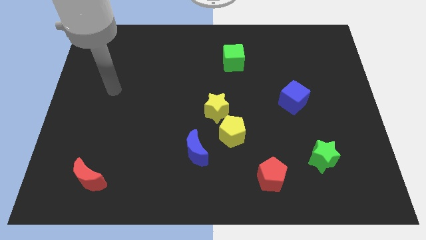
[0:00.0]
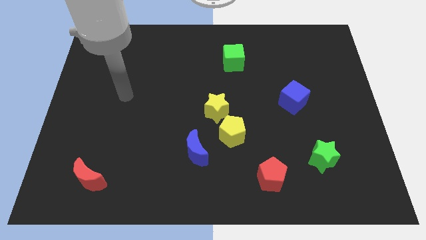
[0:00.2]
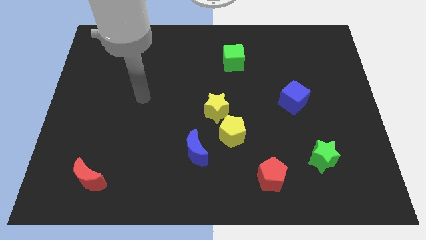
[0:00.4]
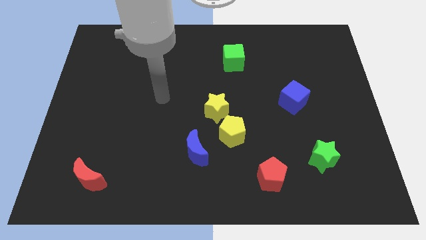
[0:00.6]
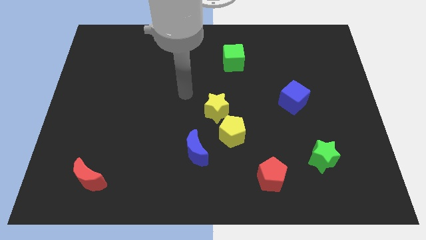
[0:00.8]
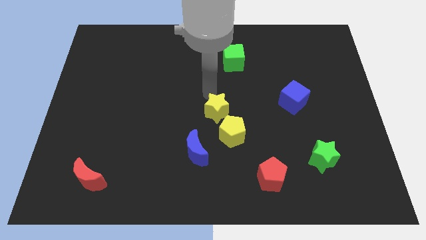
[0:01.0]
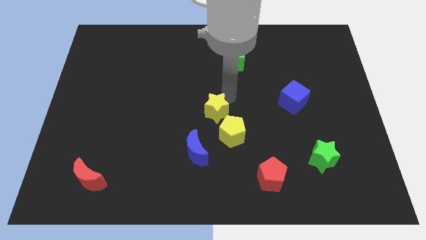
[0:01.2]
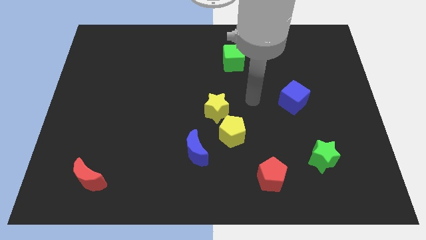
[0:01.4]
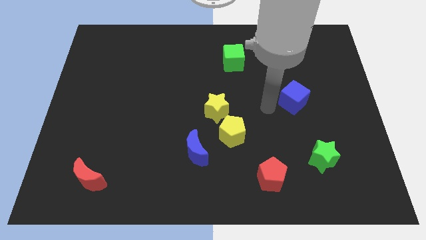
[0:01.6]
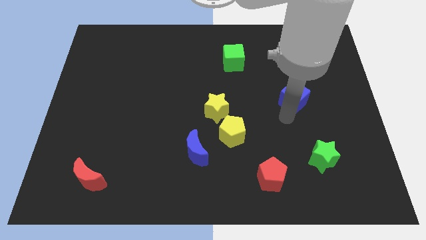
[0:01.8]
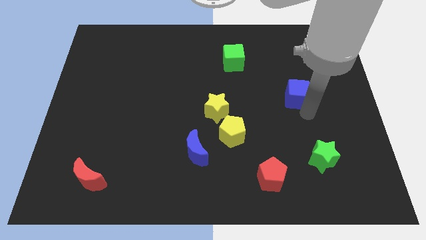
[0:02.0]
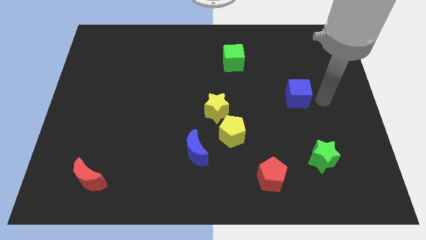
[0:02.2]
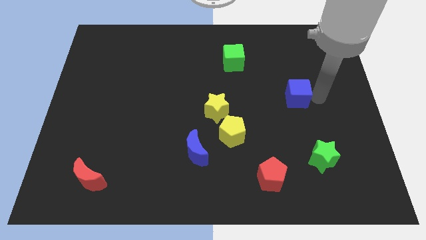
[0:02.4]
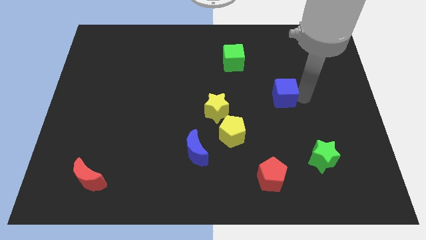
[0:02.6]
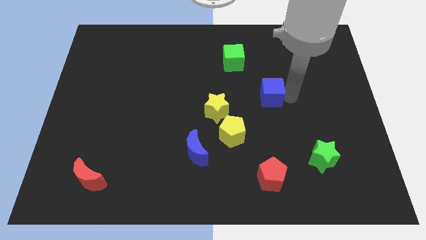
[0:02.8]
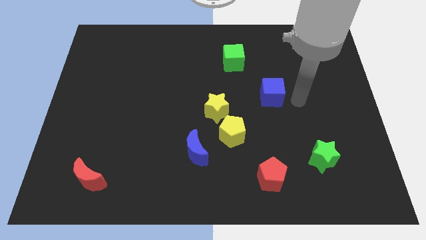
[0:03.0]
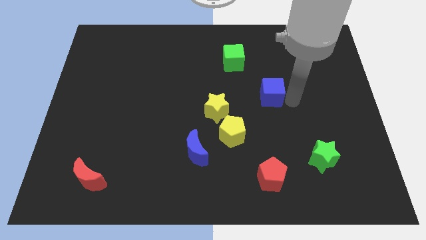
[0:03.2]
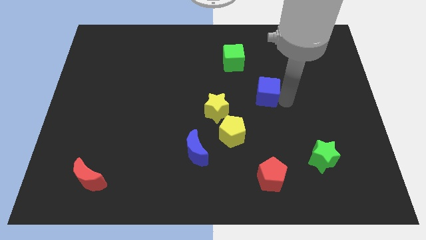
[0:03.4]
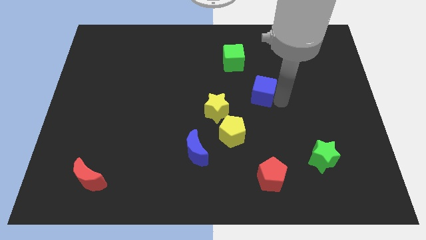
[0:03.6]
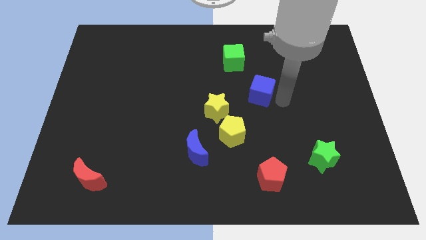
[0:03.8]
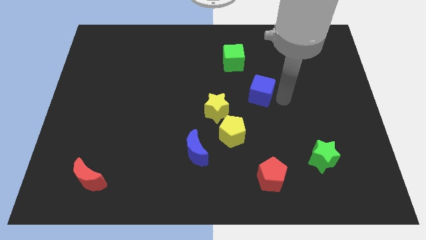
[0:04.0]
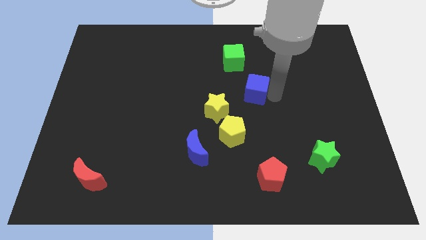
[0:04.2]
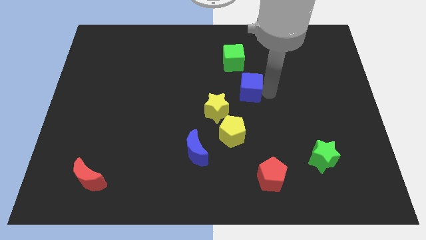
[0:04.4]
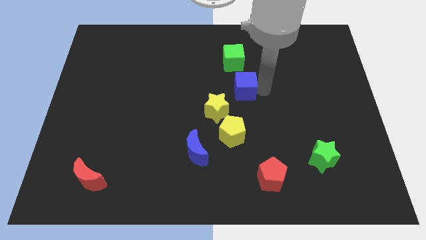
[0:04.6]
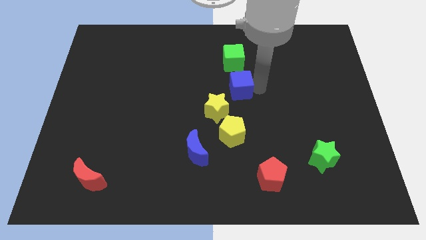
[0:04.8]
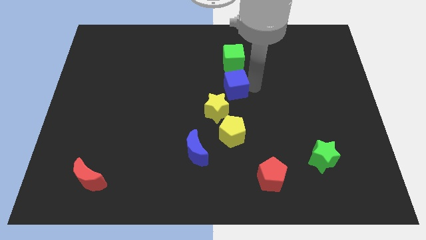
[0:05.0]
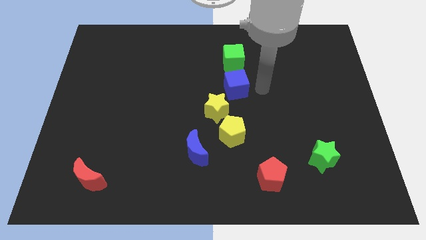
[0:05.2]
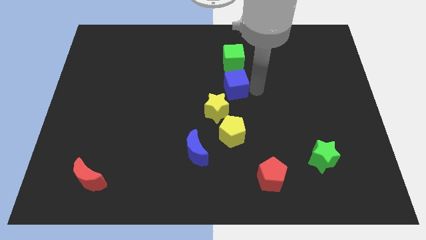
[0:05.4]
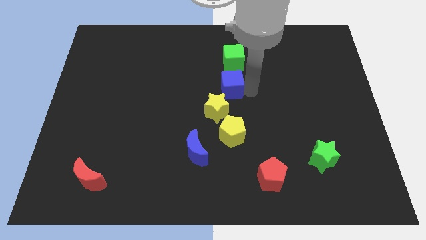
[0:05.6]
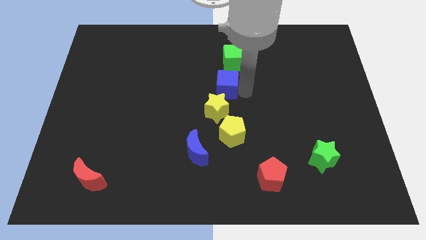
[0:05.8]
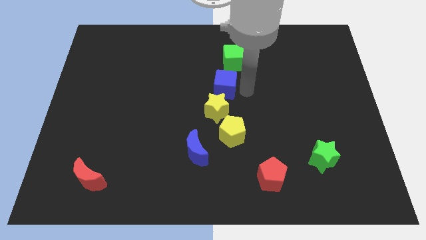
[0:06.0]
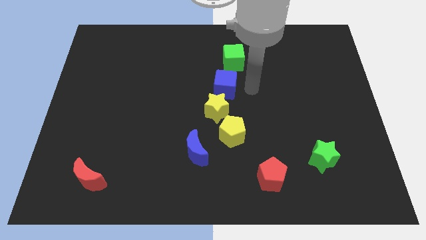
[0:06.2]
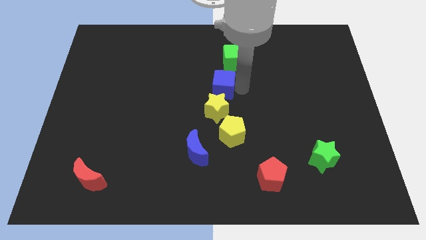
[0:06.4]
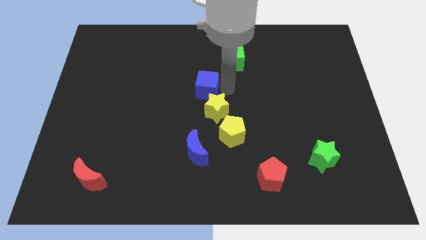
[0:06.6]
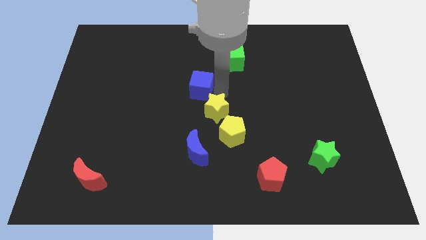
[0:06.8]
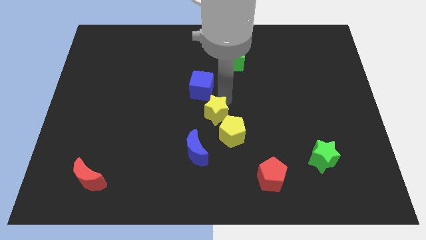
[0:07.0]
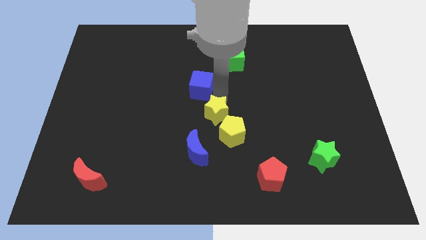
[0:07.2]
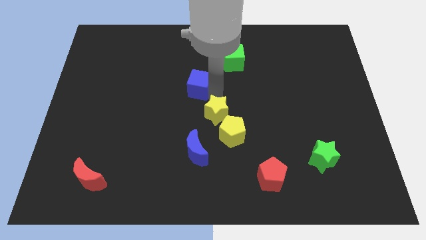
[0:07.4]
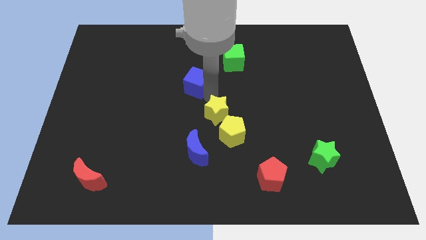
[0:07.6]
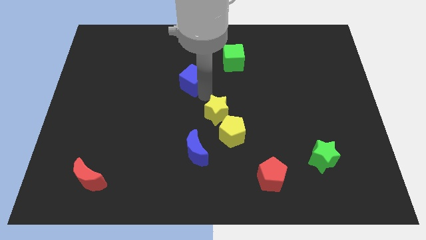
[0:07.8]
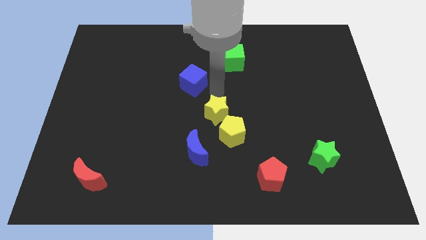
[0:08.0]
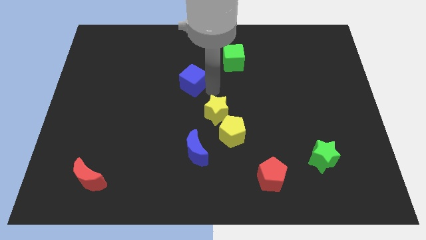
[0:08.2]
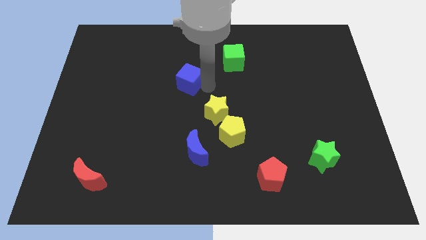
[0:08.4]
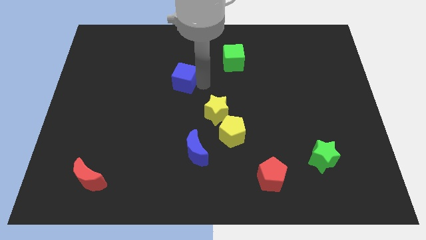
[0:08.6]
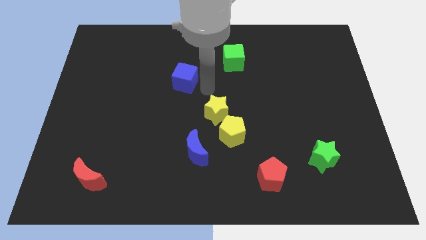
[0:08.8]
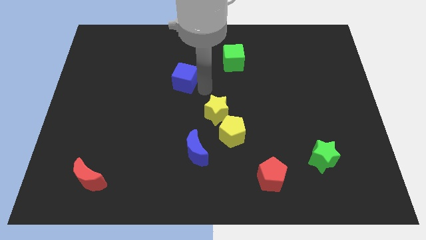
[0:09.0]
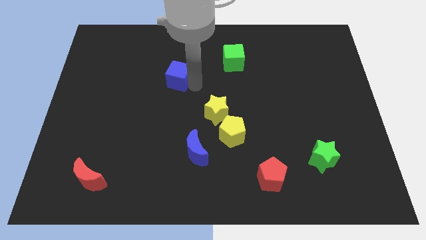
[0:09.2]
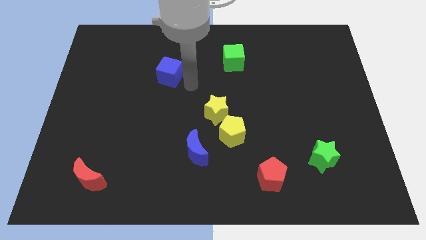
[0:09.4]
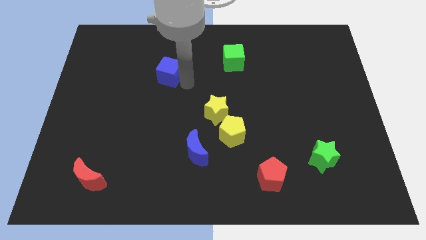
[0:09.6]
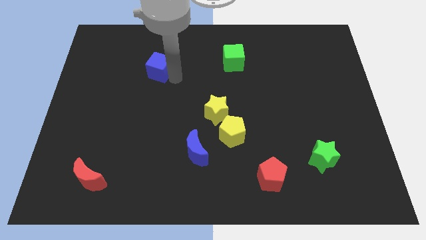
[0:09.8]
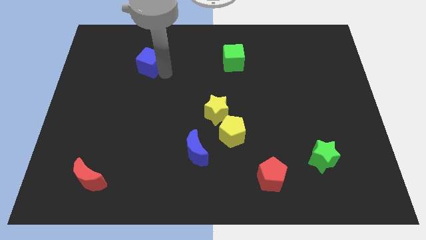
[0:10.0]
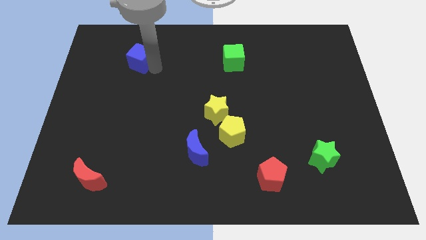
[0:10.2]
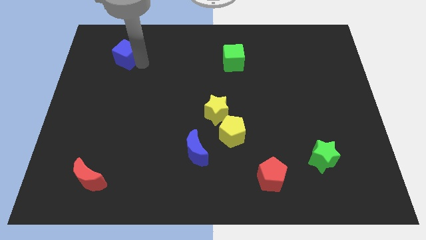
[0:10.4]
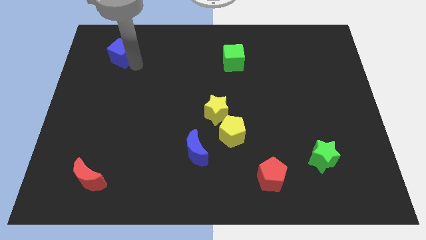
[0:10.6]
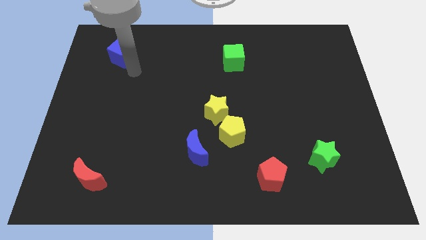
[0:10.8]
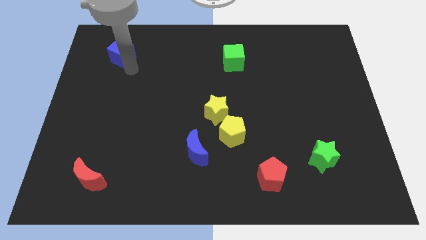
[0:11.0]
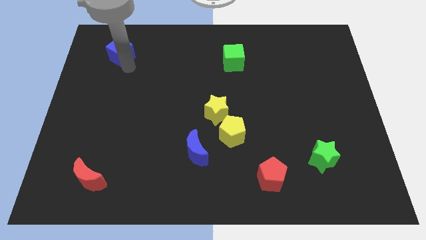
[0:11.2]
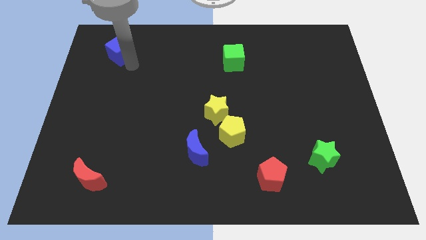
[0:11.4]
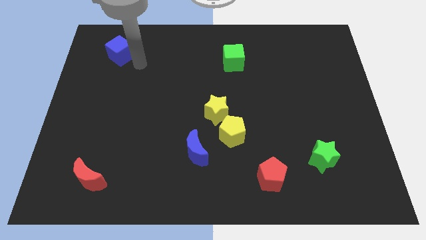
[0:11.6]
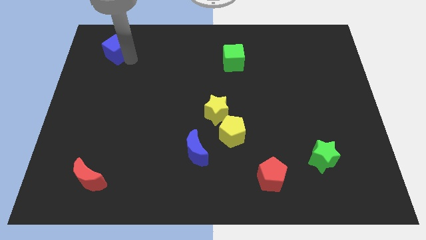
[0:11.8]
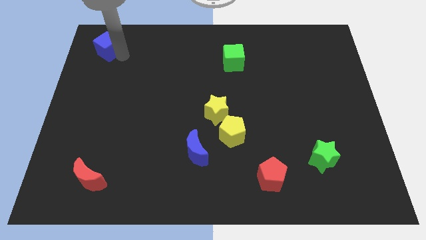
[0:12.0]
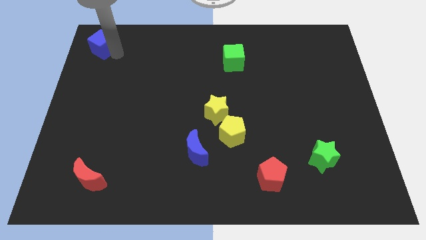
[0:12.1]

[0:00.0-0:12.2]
put the blue cube to the top left corner

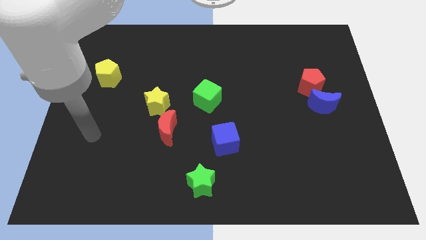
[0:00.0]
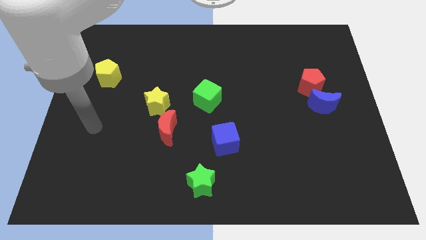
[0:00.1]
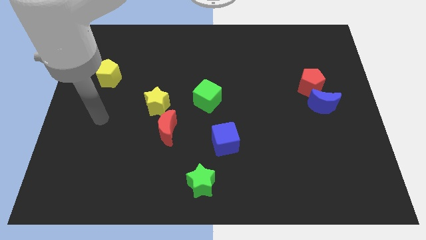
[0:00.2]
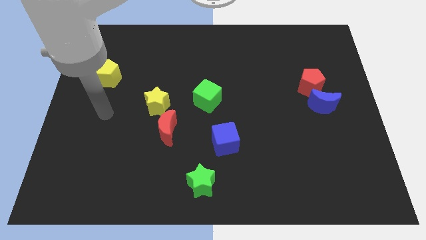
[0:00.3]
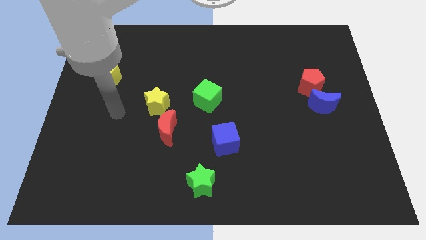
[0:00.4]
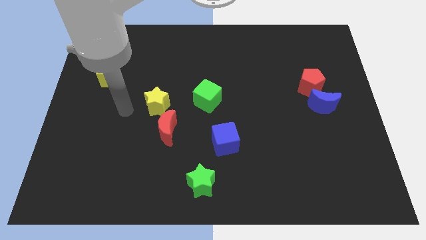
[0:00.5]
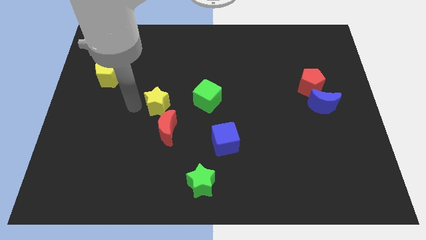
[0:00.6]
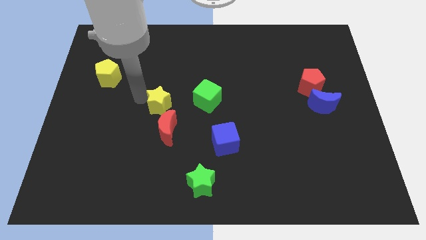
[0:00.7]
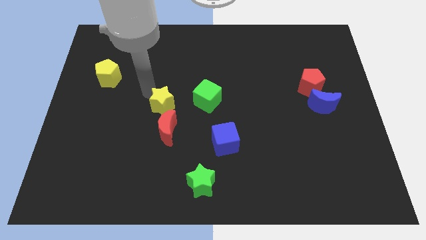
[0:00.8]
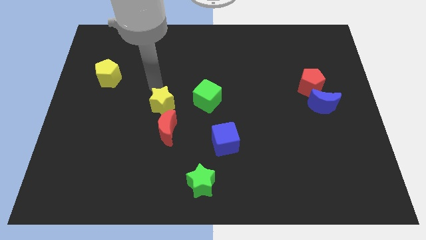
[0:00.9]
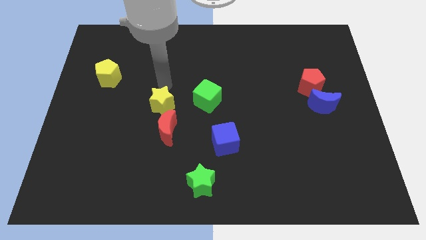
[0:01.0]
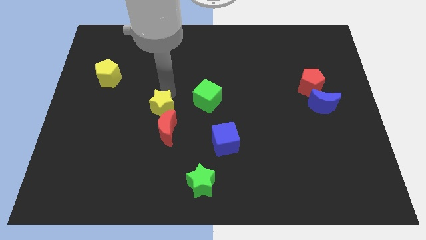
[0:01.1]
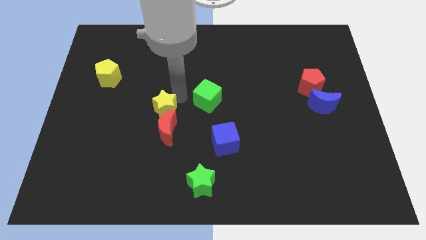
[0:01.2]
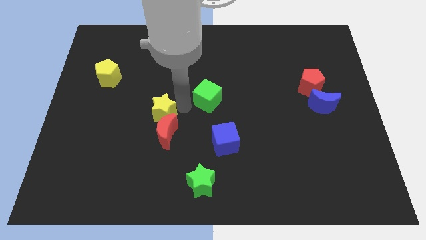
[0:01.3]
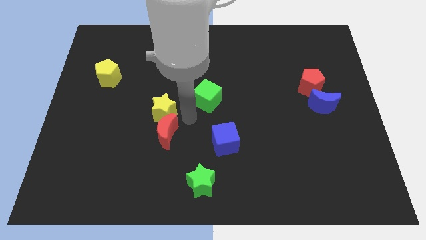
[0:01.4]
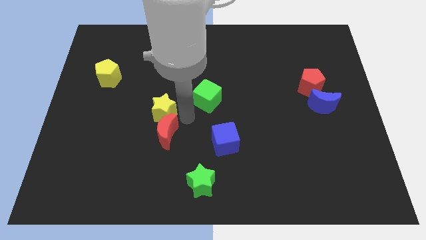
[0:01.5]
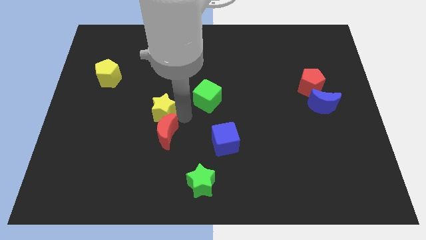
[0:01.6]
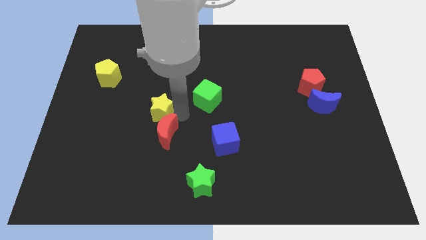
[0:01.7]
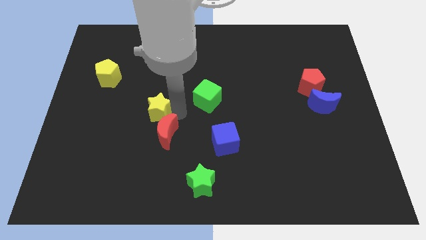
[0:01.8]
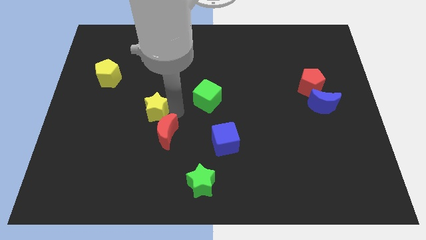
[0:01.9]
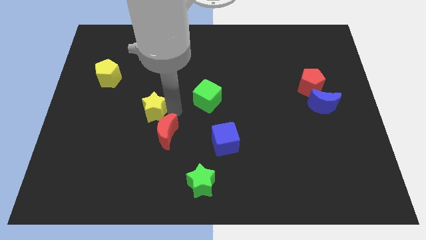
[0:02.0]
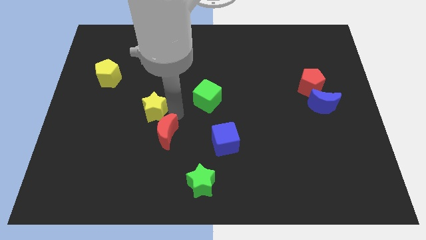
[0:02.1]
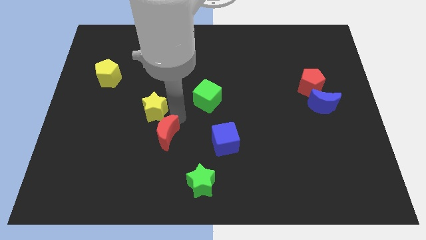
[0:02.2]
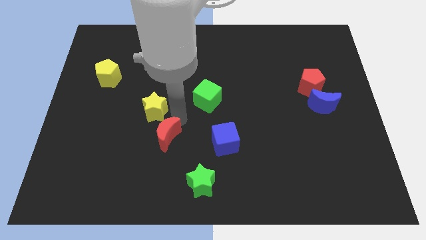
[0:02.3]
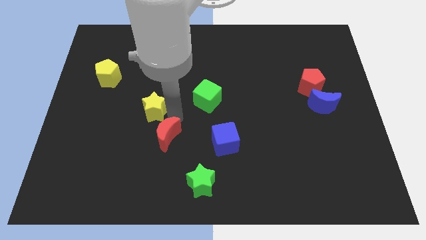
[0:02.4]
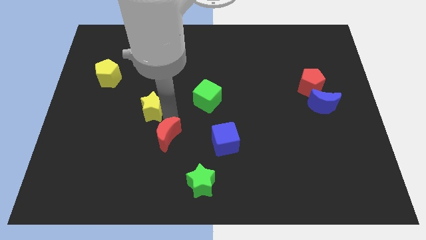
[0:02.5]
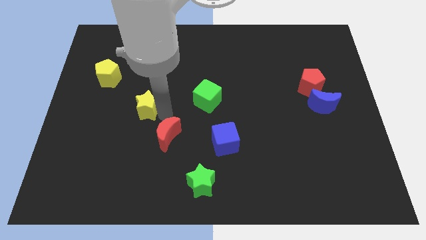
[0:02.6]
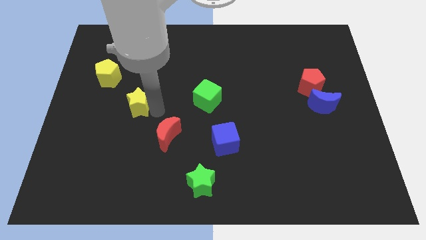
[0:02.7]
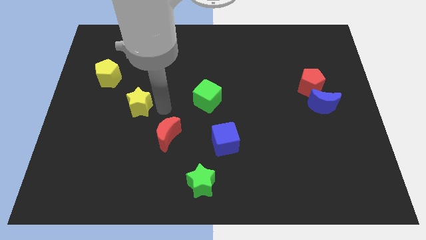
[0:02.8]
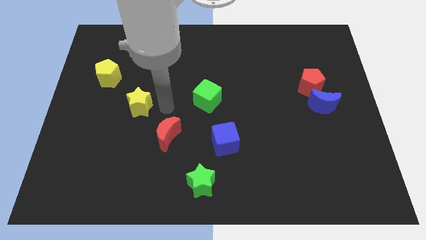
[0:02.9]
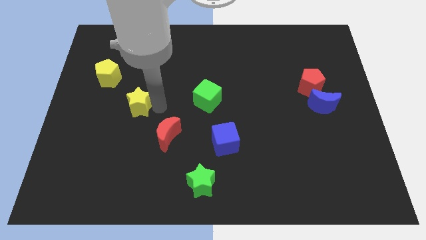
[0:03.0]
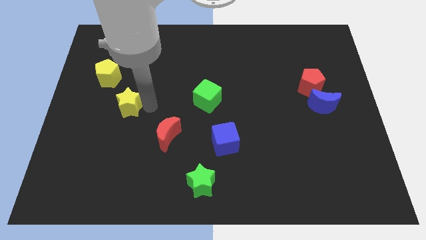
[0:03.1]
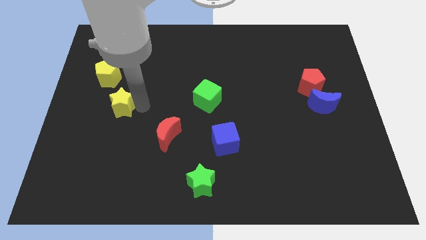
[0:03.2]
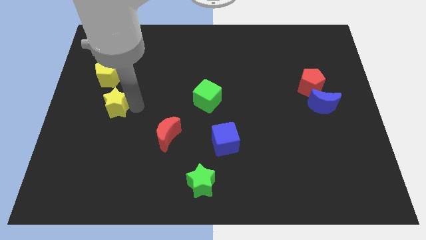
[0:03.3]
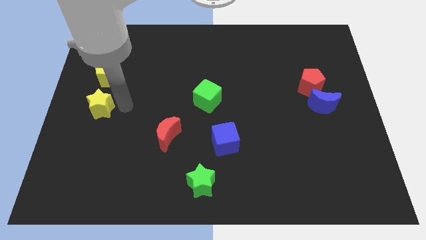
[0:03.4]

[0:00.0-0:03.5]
push the yellow star to the center left
